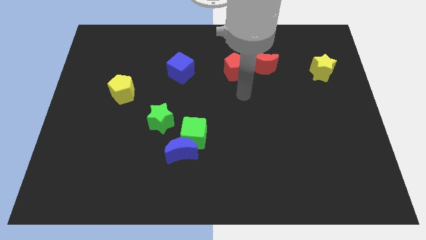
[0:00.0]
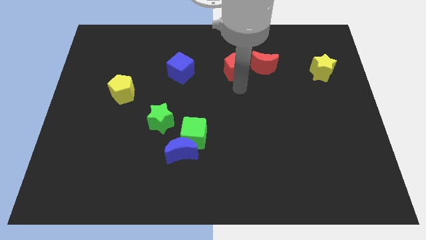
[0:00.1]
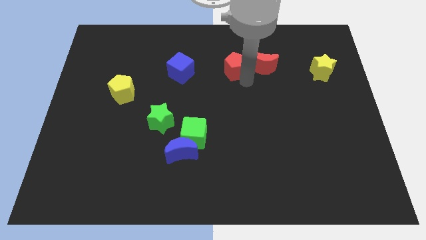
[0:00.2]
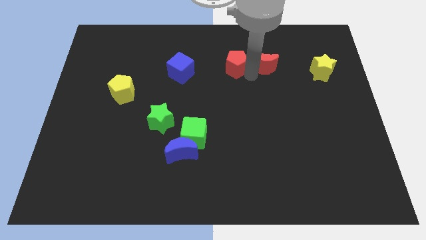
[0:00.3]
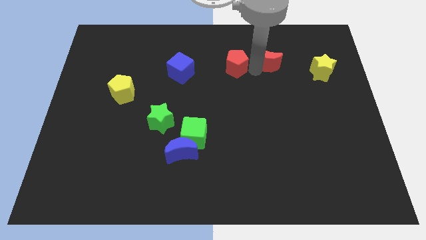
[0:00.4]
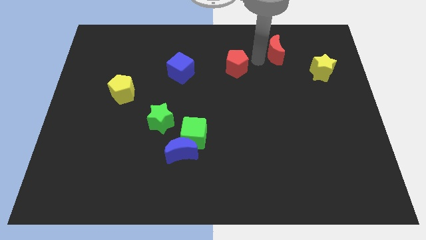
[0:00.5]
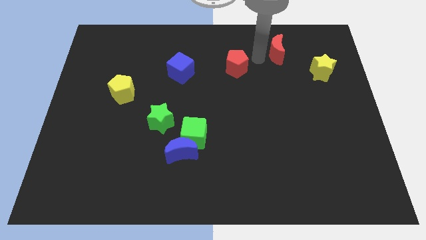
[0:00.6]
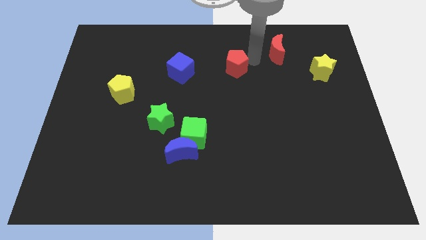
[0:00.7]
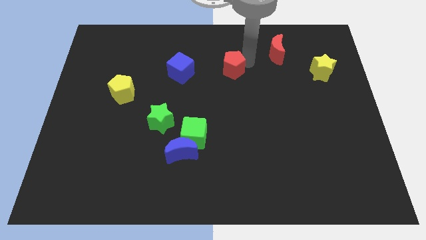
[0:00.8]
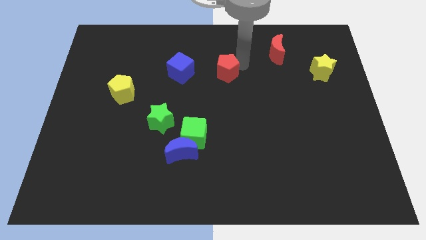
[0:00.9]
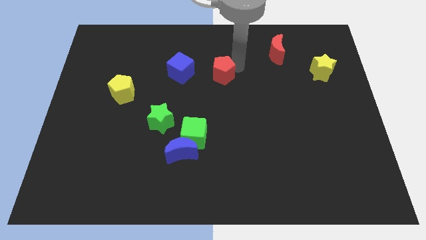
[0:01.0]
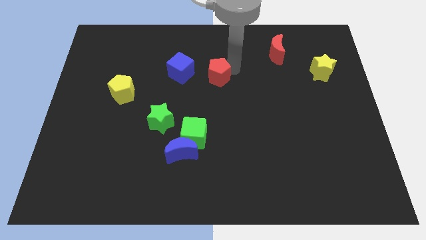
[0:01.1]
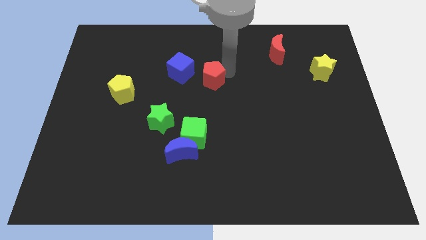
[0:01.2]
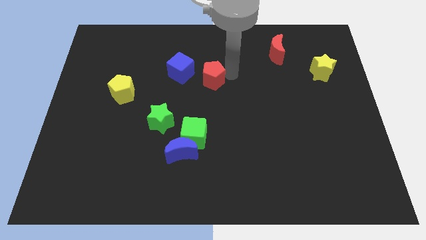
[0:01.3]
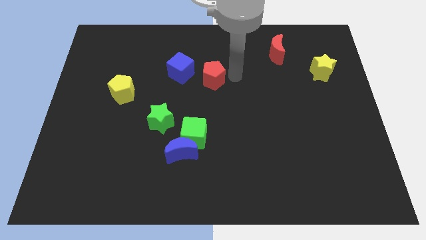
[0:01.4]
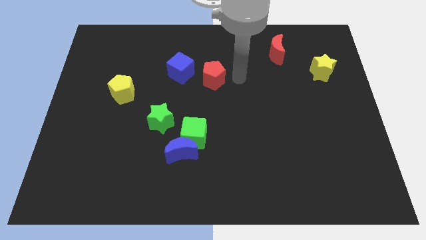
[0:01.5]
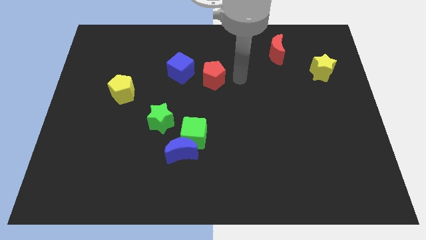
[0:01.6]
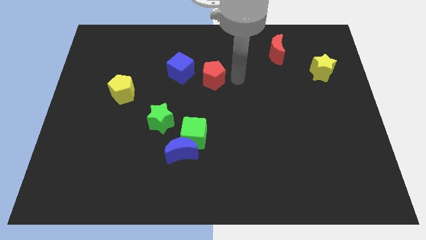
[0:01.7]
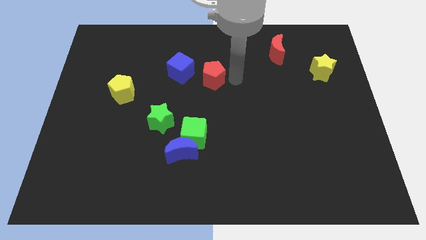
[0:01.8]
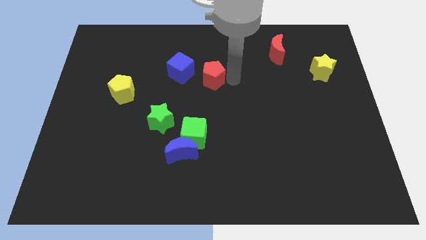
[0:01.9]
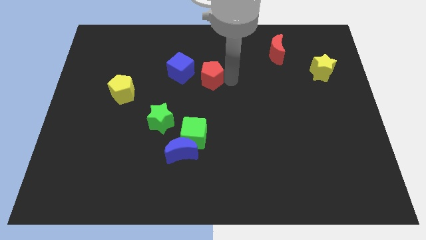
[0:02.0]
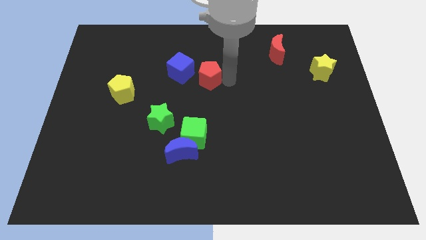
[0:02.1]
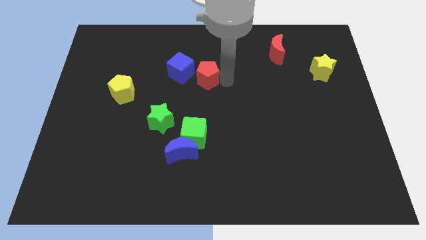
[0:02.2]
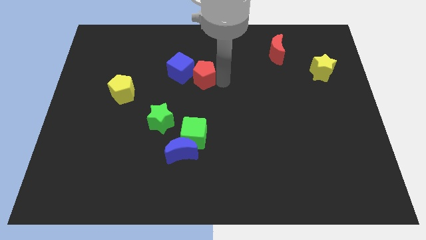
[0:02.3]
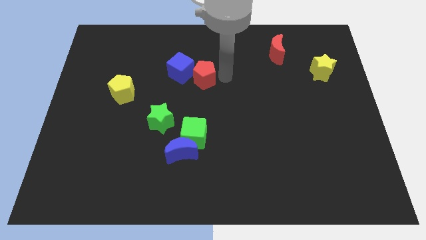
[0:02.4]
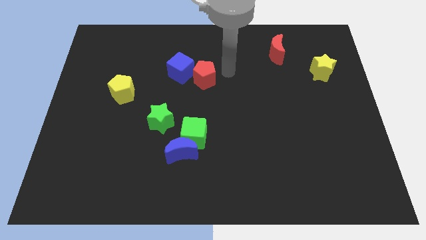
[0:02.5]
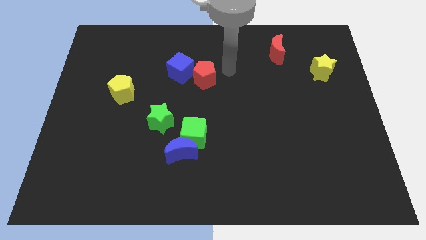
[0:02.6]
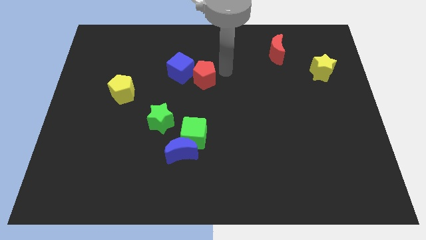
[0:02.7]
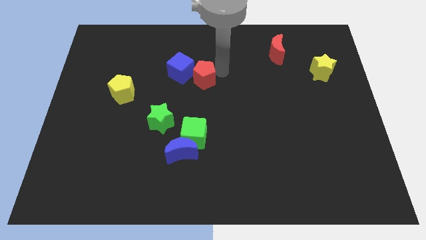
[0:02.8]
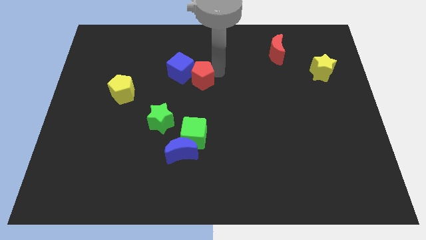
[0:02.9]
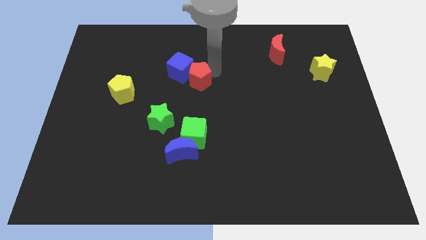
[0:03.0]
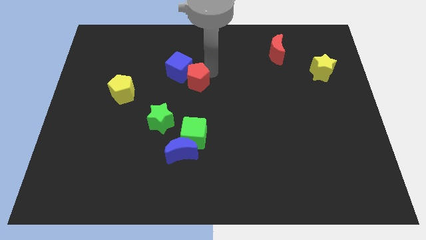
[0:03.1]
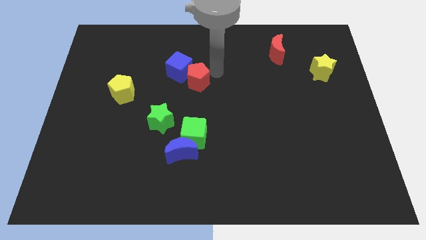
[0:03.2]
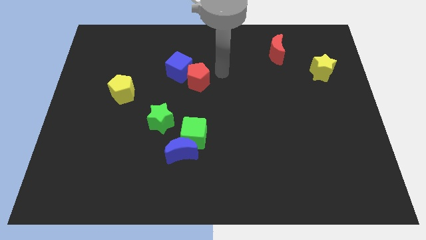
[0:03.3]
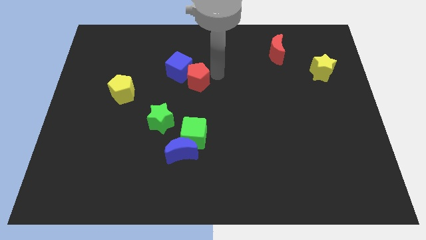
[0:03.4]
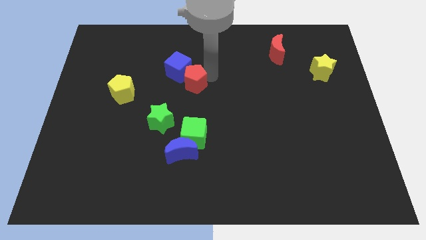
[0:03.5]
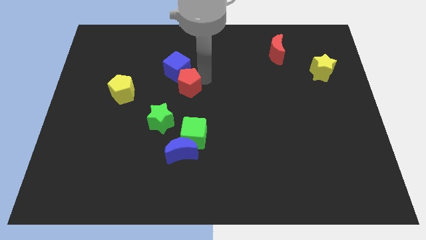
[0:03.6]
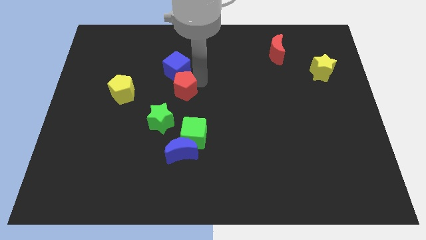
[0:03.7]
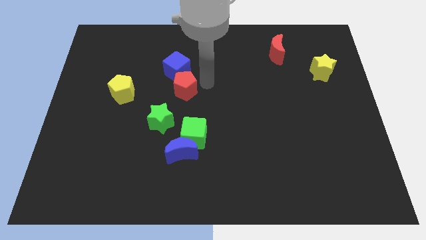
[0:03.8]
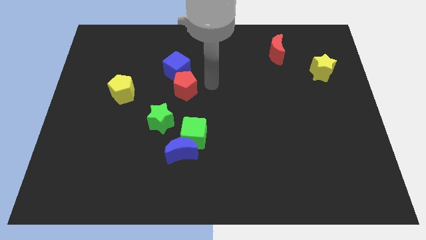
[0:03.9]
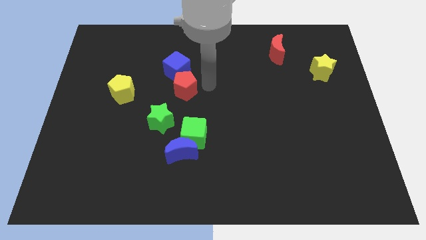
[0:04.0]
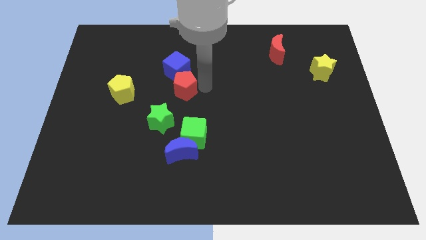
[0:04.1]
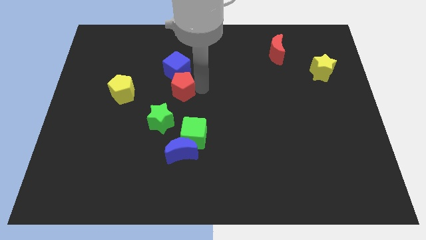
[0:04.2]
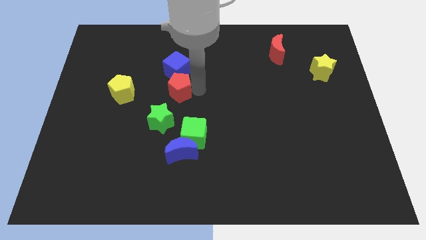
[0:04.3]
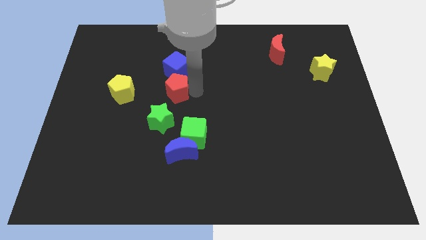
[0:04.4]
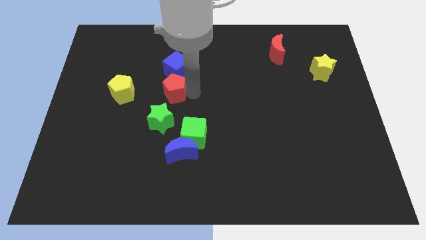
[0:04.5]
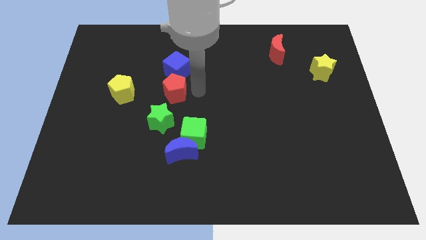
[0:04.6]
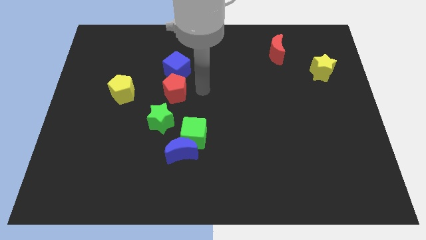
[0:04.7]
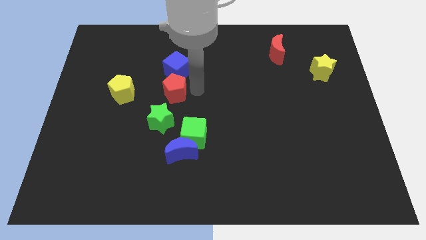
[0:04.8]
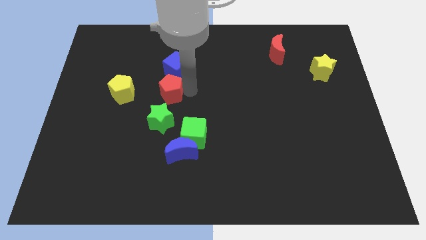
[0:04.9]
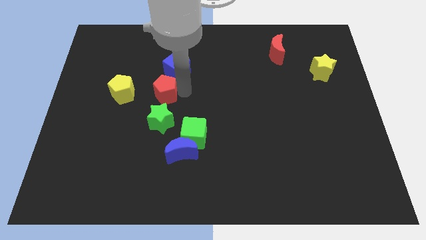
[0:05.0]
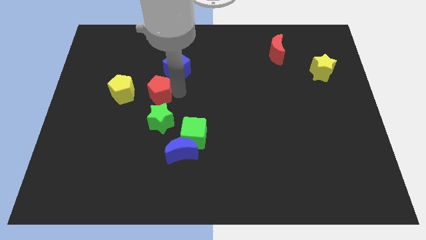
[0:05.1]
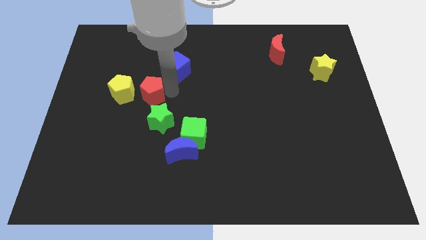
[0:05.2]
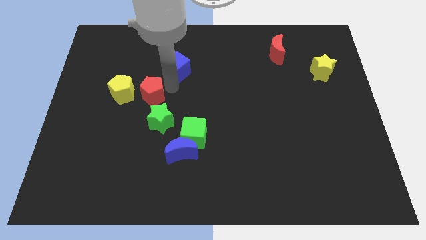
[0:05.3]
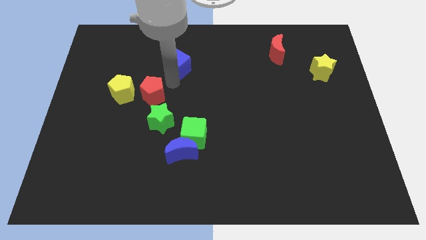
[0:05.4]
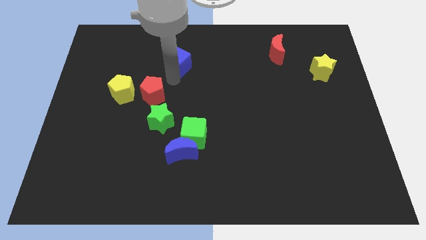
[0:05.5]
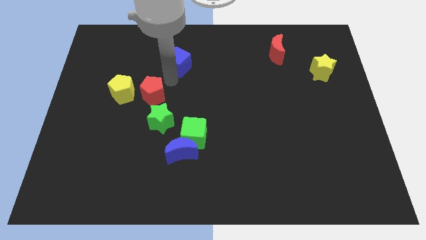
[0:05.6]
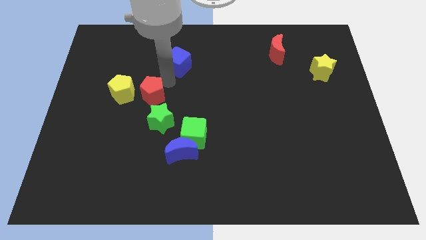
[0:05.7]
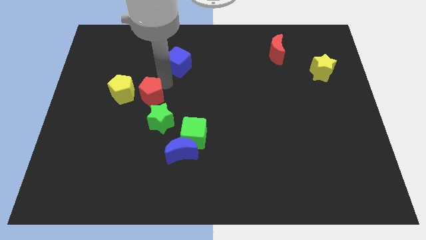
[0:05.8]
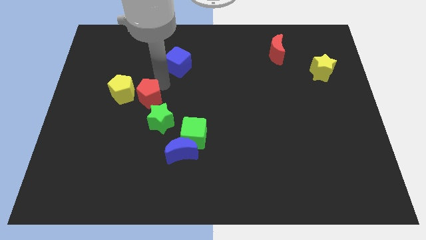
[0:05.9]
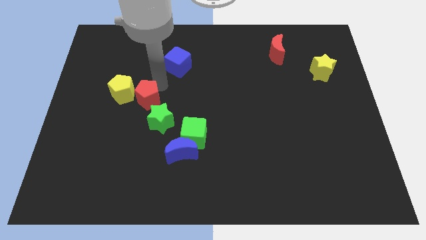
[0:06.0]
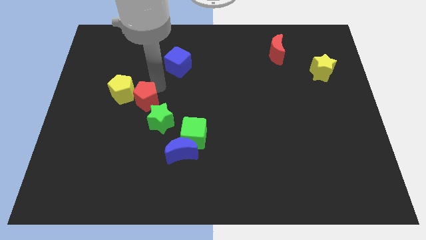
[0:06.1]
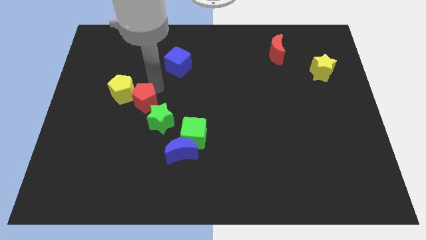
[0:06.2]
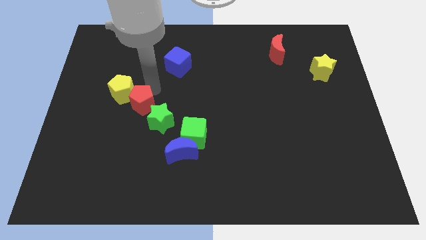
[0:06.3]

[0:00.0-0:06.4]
slide the red pentagon down and then left

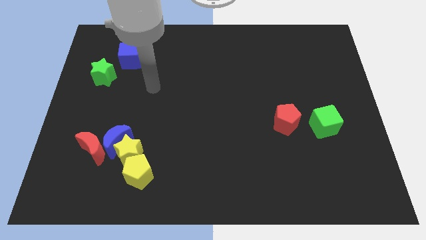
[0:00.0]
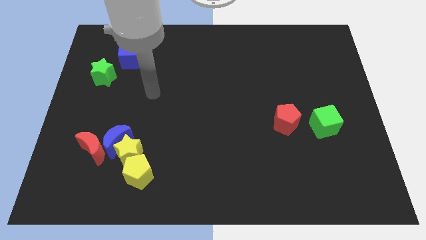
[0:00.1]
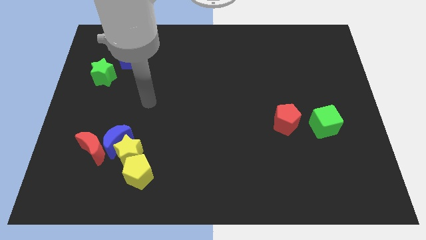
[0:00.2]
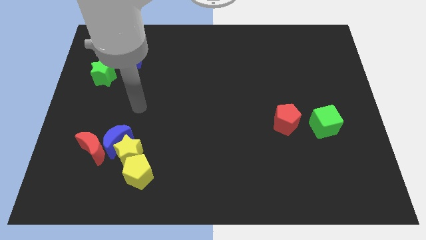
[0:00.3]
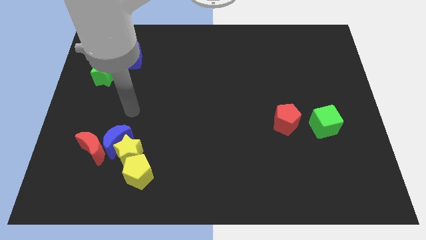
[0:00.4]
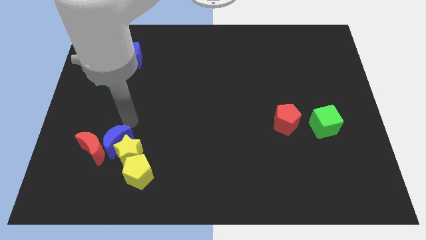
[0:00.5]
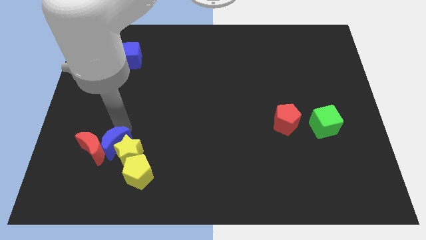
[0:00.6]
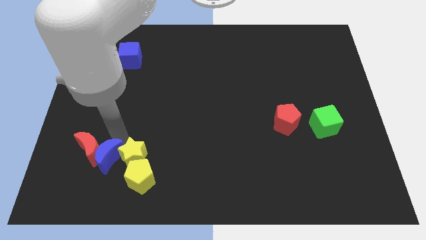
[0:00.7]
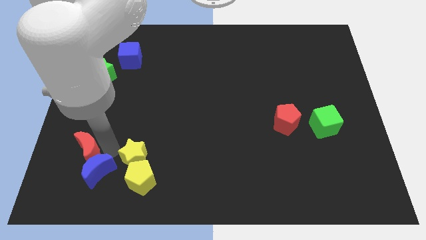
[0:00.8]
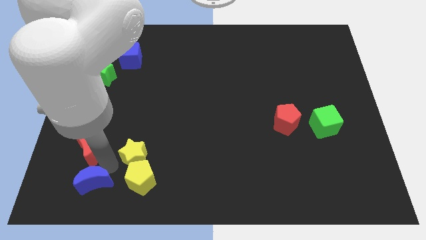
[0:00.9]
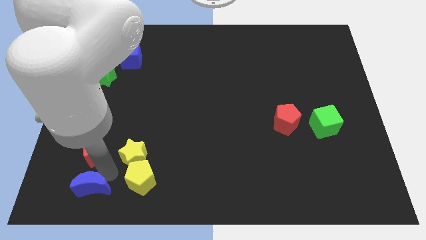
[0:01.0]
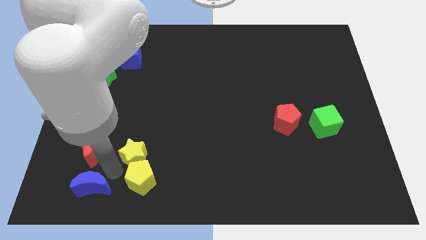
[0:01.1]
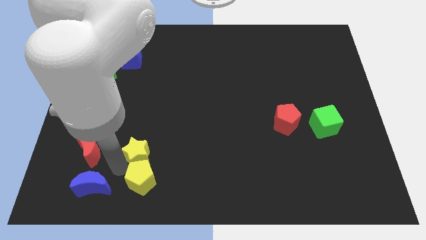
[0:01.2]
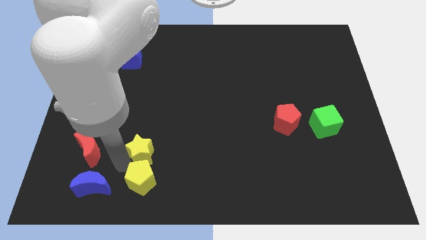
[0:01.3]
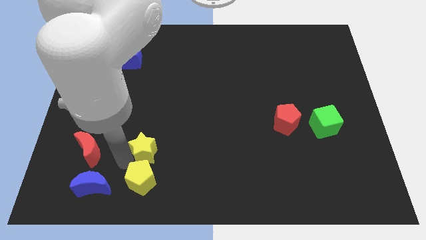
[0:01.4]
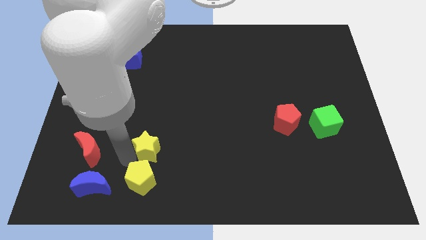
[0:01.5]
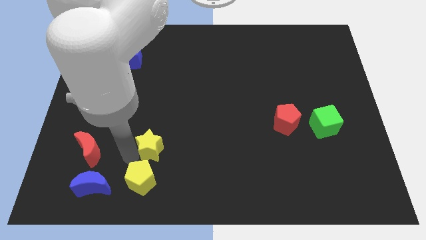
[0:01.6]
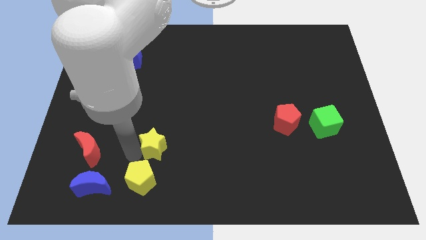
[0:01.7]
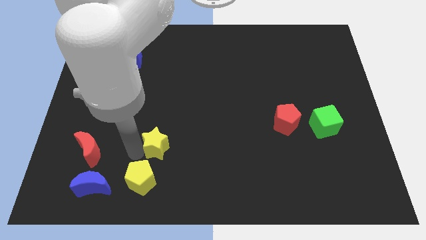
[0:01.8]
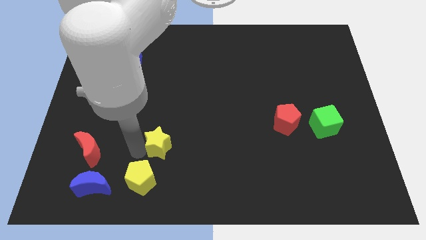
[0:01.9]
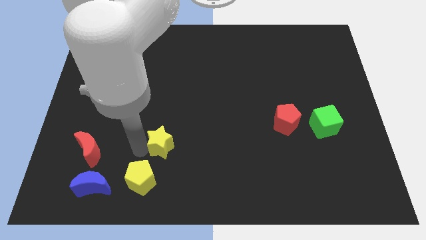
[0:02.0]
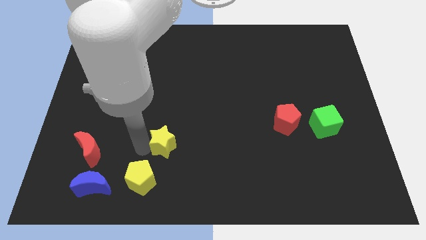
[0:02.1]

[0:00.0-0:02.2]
slightly push the yellow star to the right
